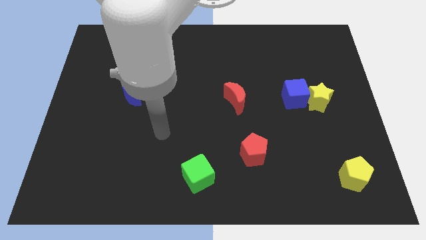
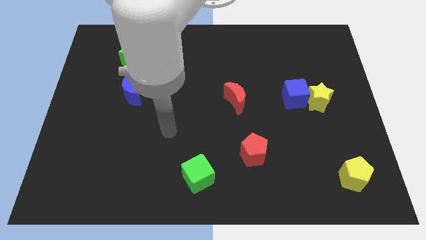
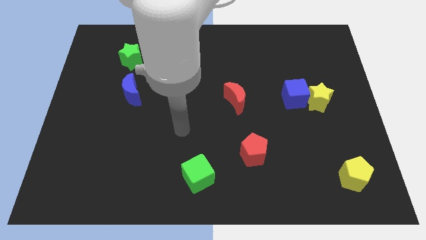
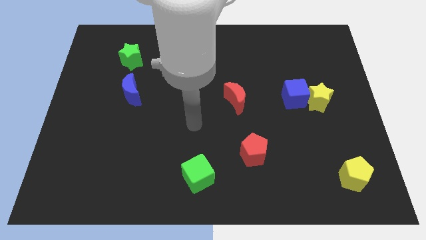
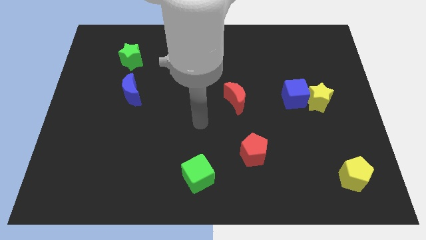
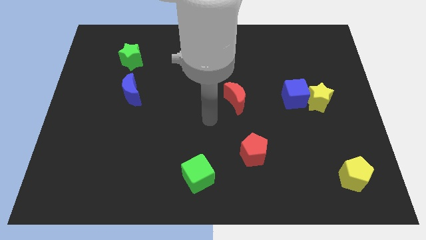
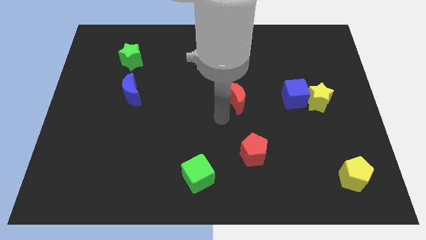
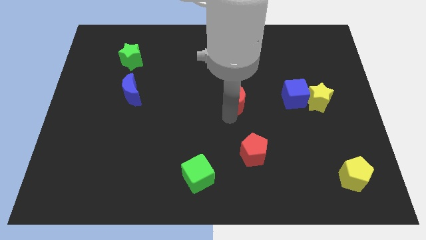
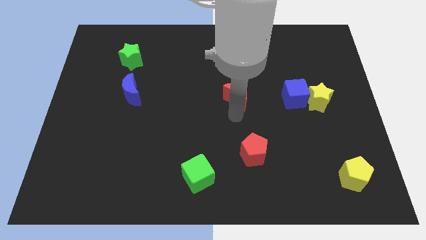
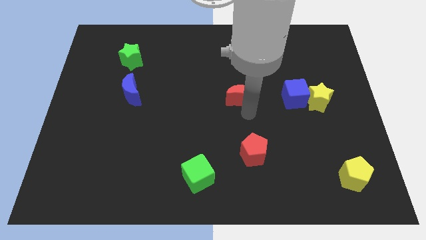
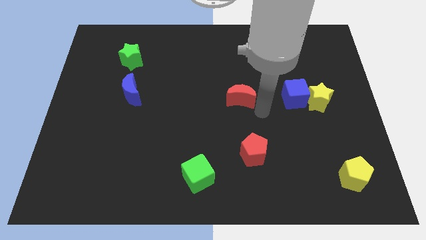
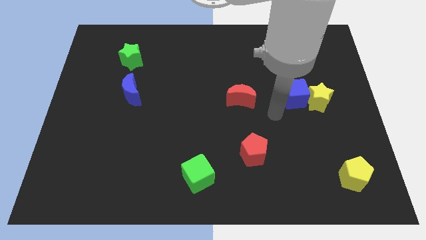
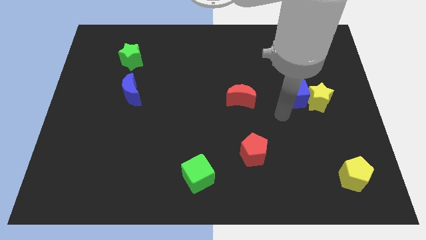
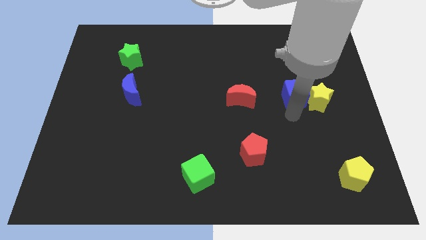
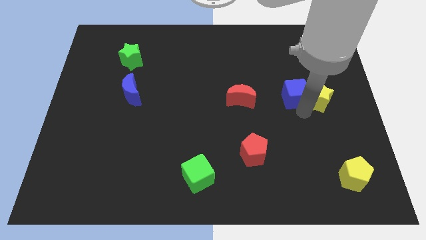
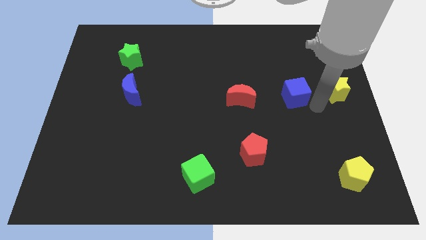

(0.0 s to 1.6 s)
move the blue cube away from the yellow star

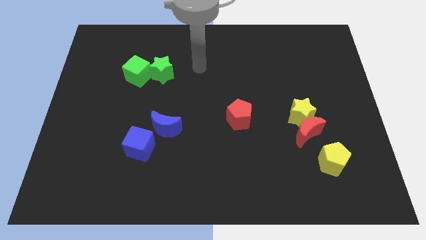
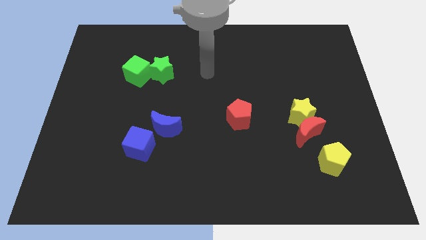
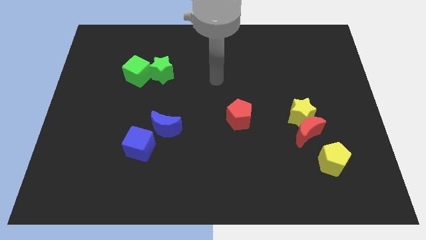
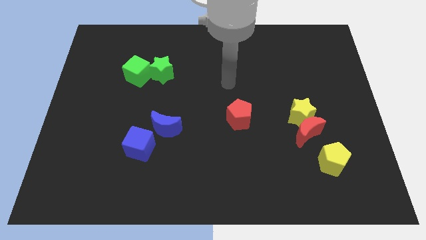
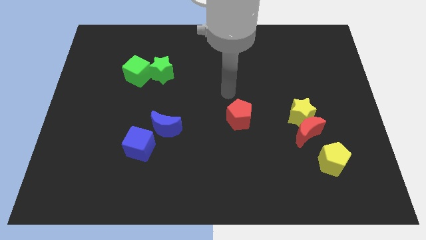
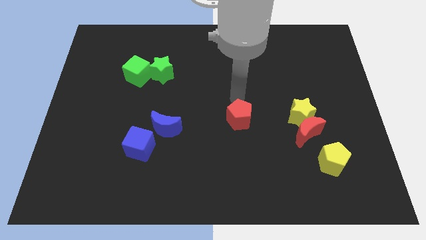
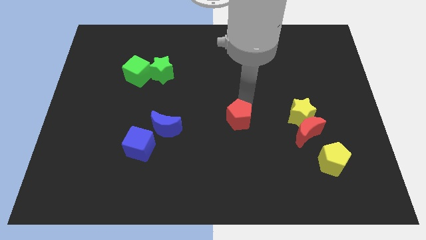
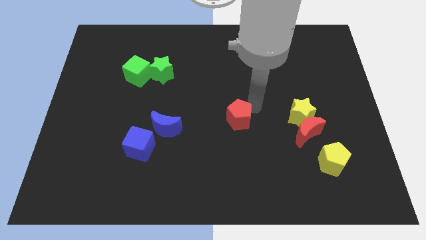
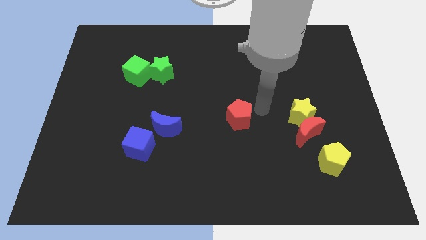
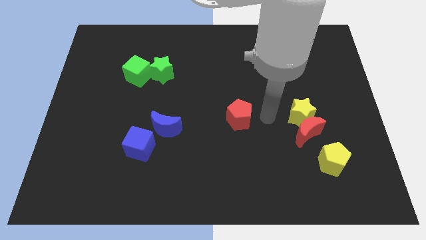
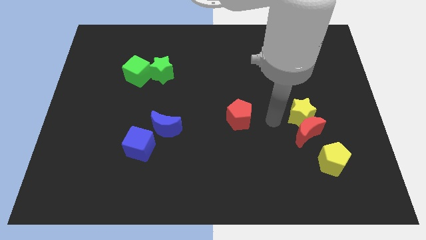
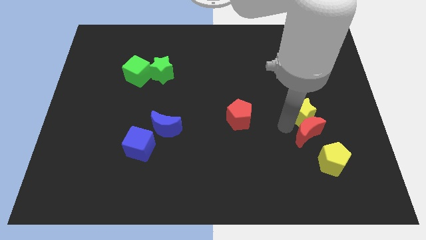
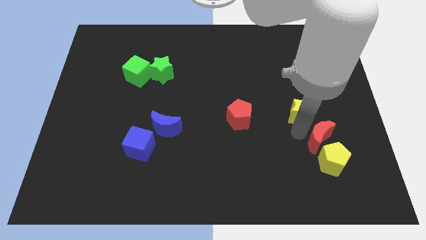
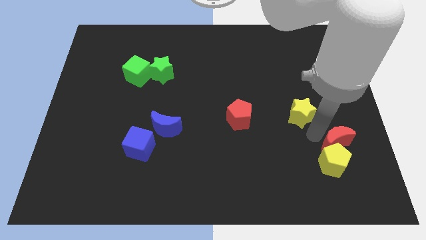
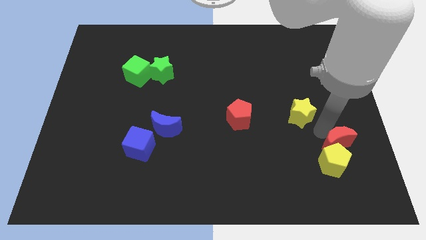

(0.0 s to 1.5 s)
separate the yellow star from the red moon

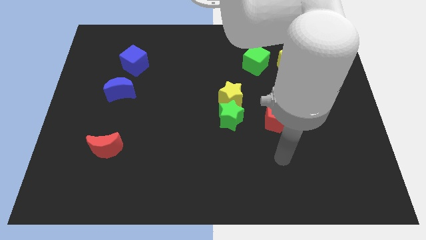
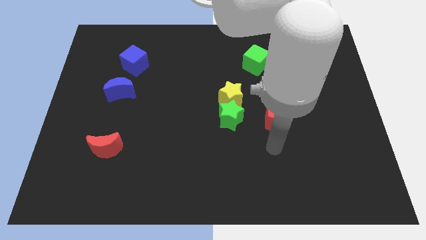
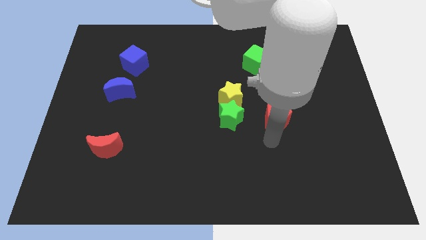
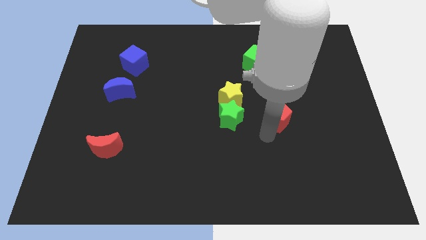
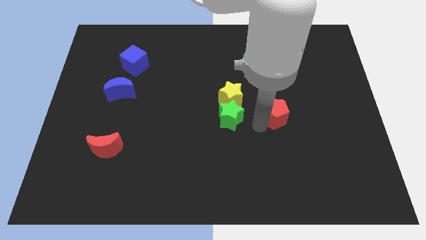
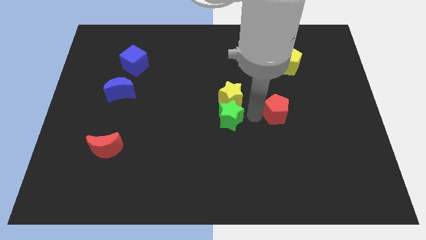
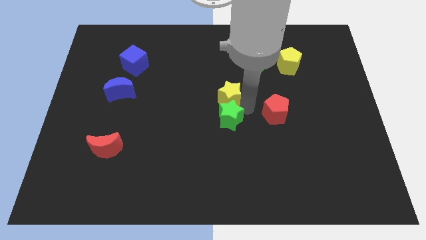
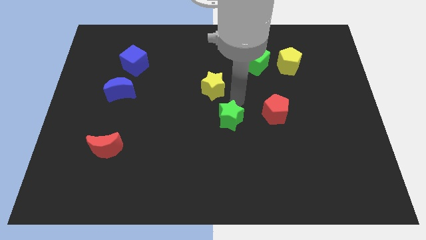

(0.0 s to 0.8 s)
pull the green star apart from the yellow star

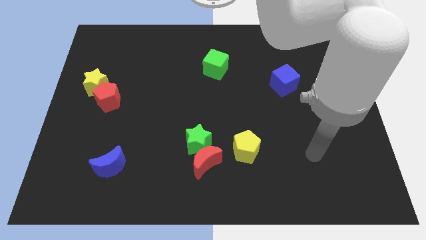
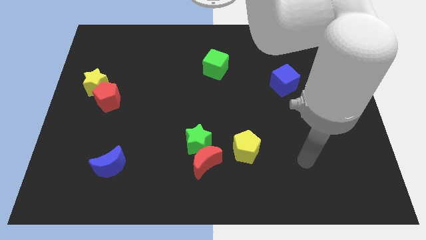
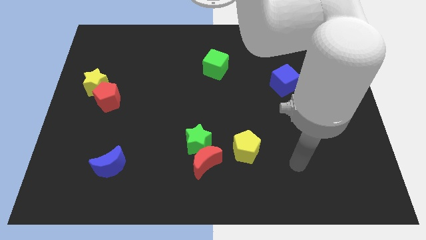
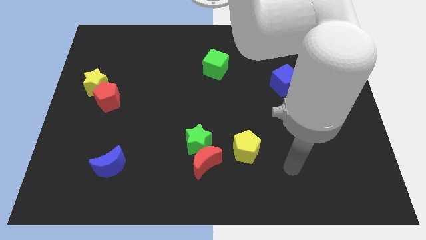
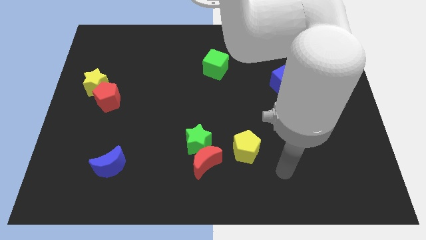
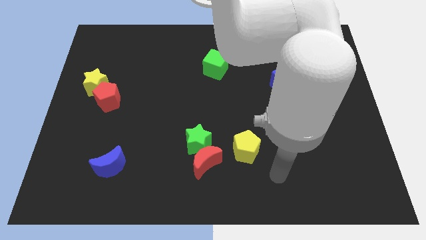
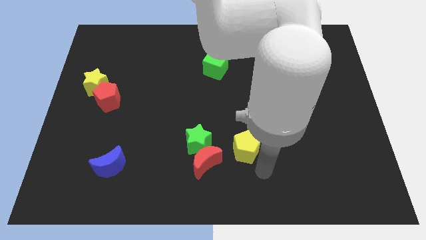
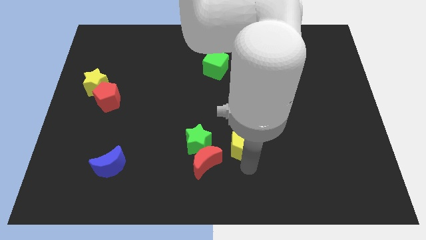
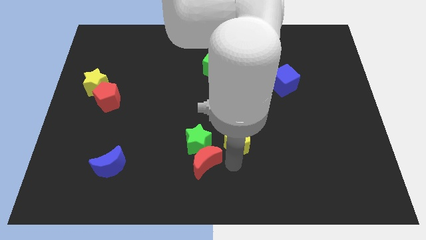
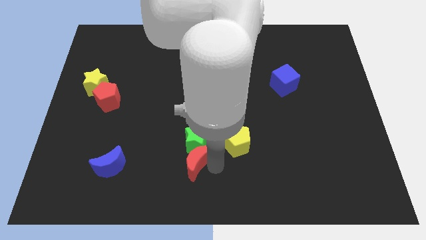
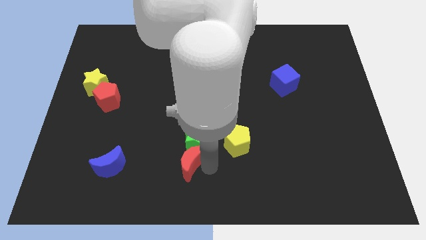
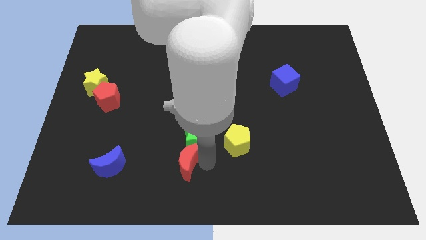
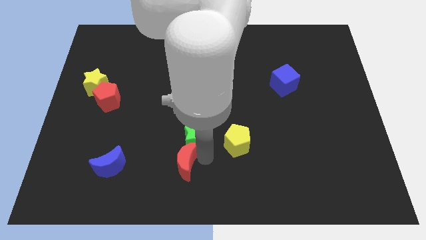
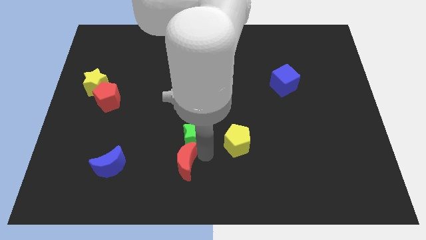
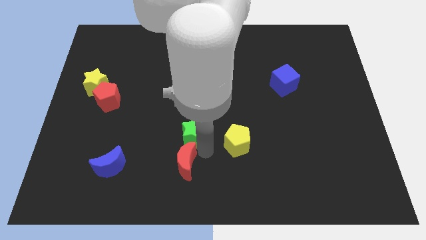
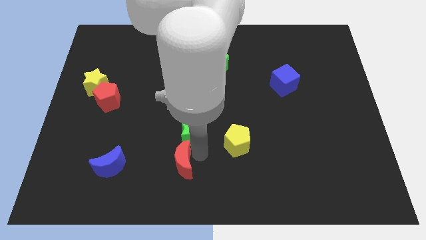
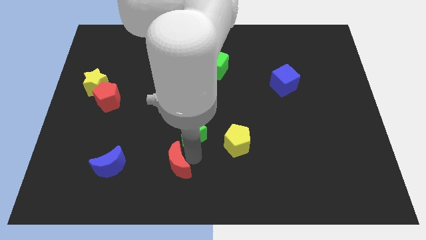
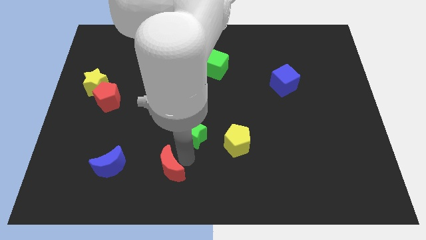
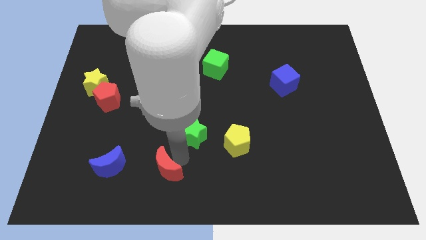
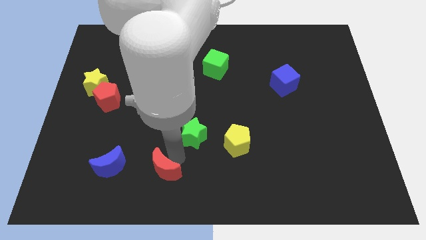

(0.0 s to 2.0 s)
move the green star away from the red moon

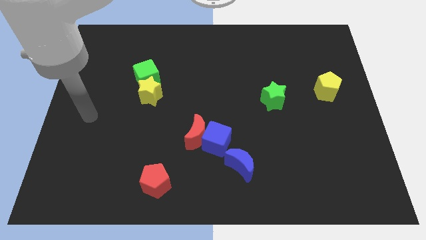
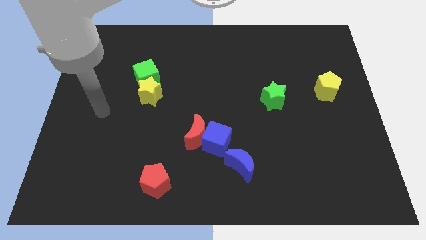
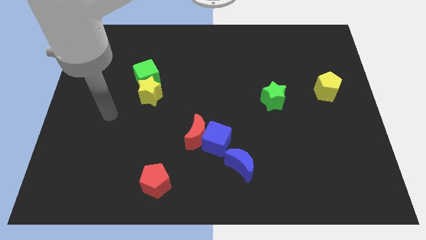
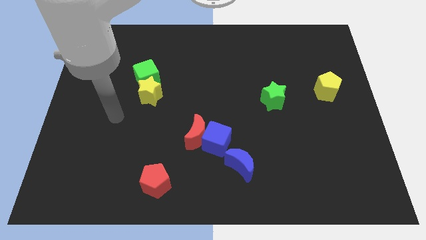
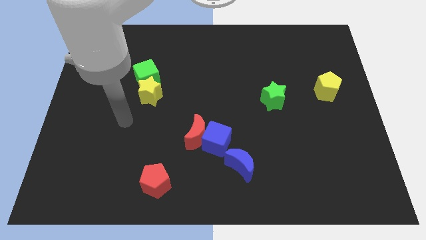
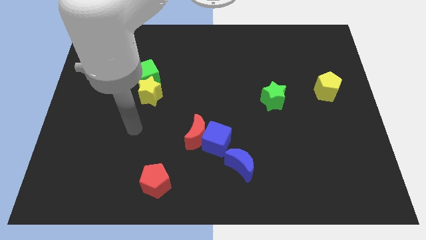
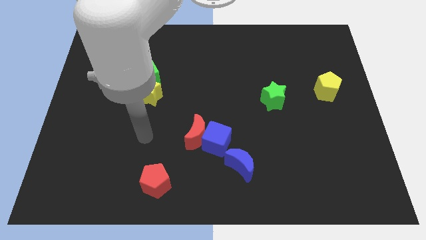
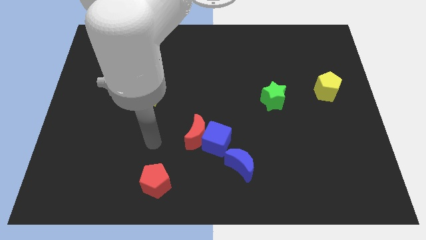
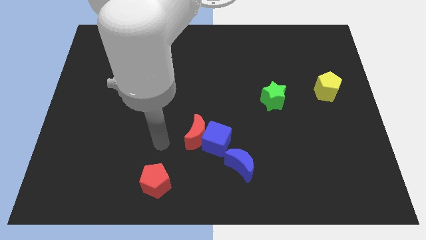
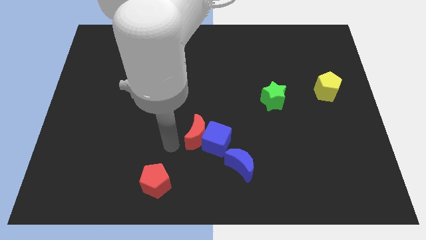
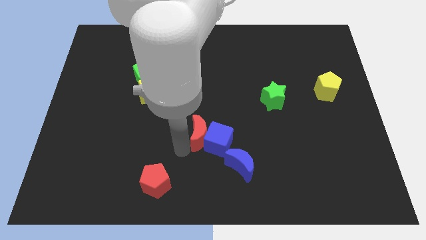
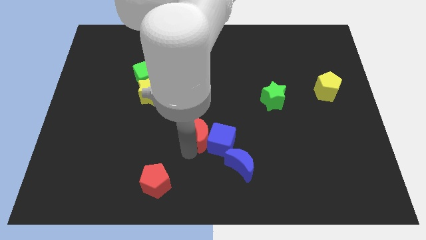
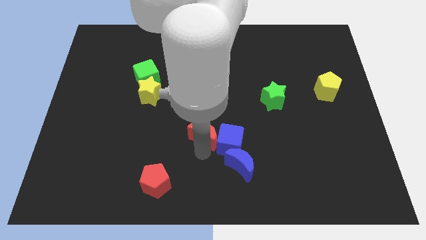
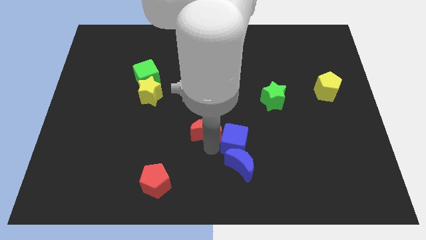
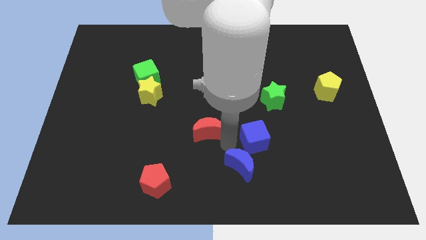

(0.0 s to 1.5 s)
separate the red moon from the blue cube

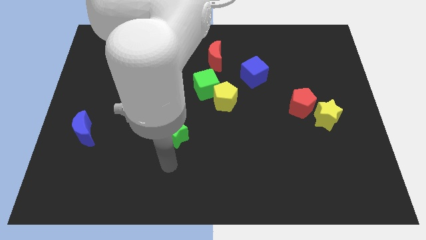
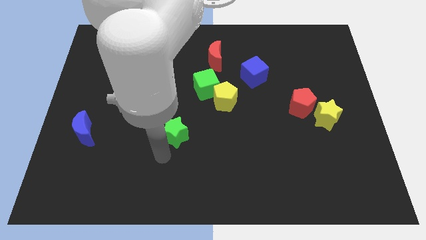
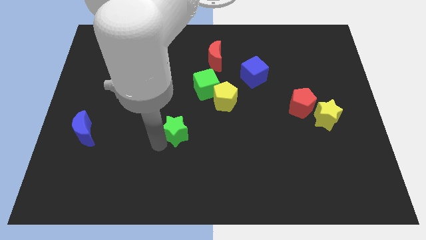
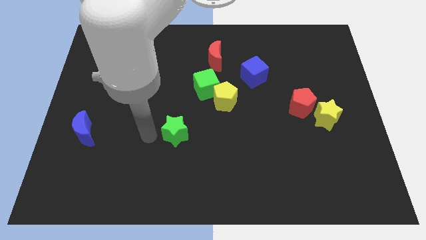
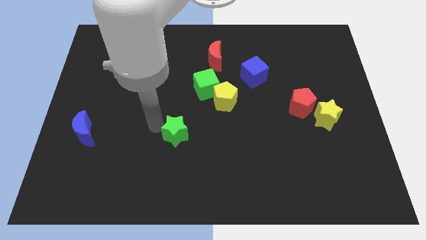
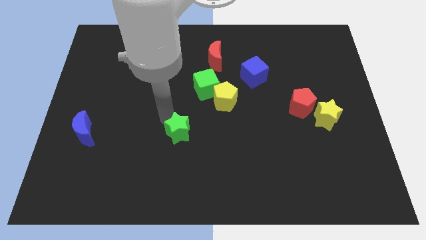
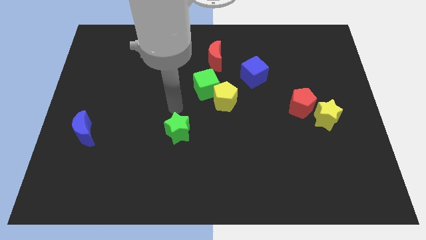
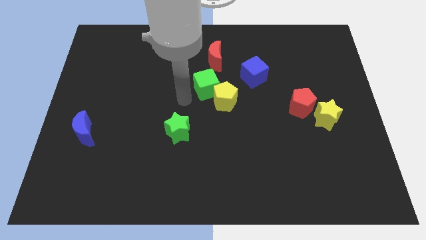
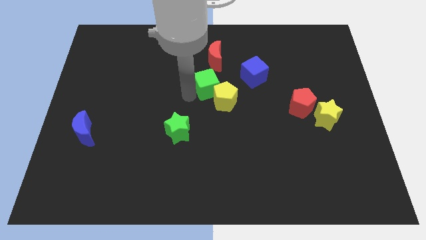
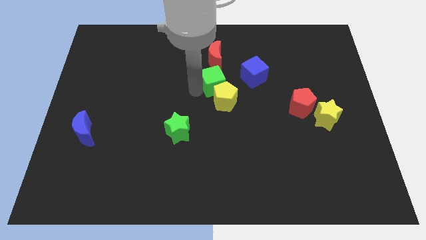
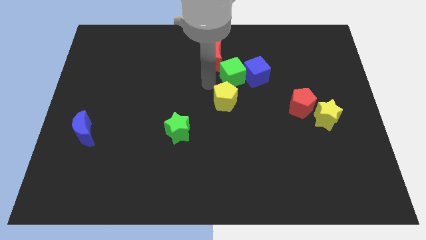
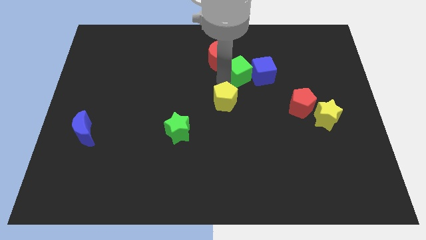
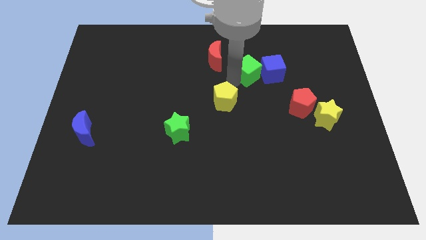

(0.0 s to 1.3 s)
separate the yellow pentagon from the green cube

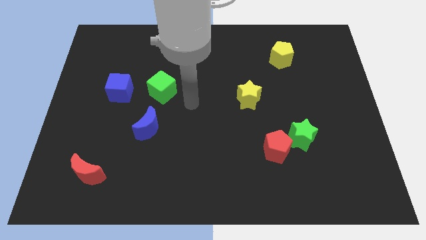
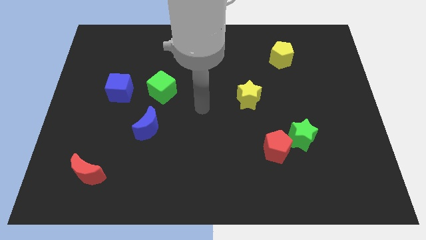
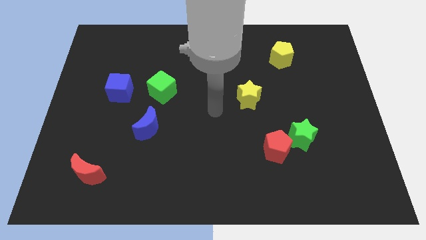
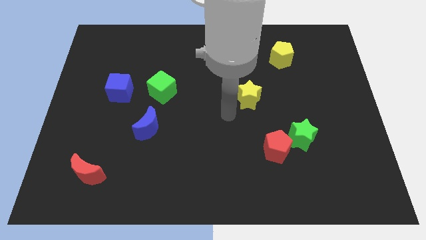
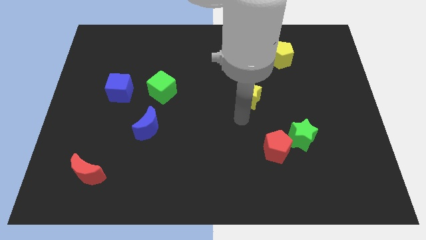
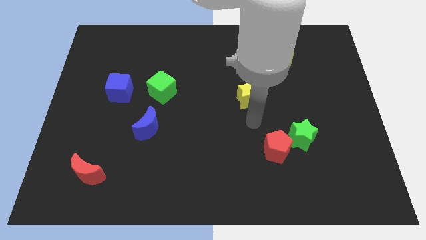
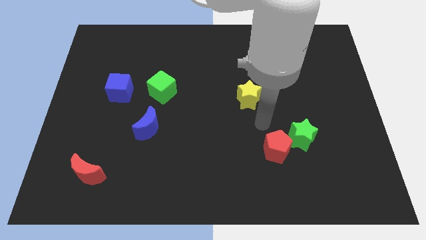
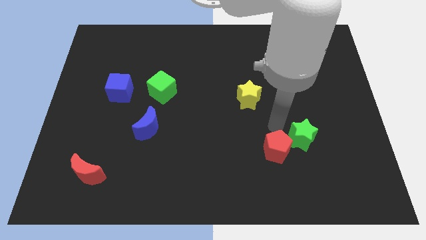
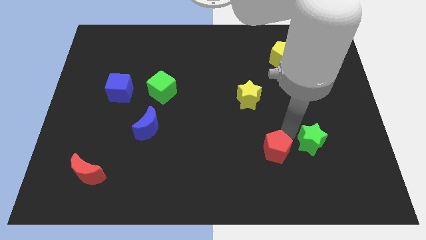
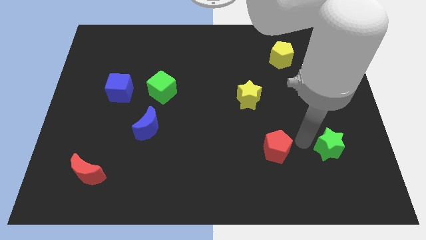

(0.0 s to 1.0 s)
separate the red pentagon from the green star
